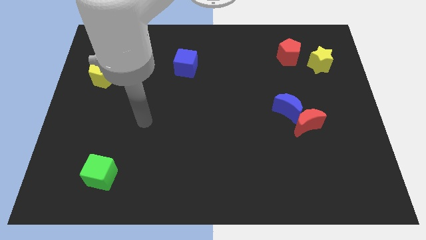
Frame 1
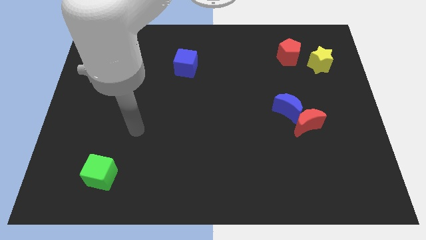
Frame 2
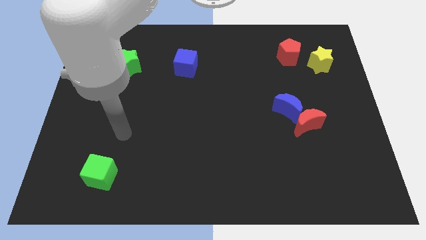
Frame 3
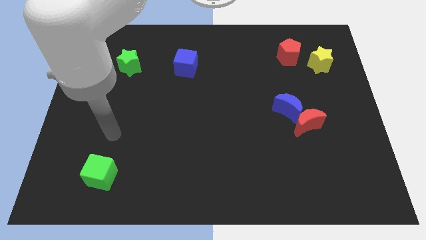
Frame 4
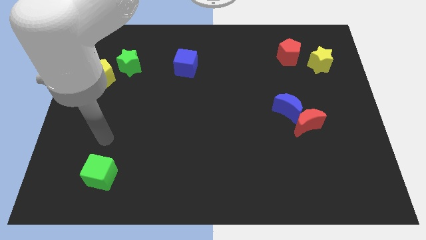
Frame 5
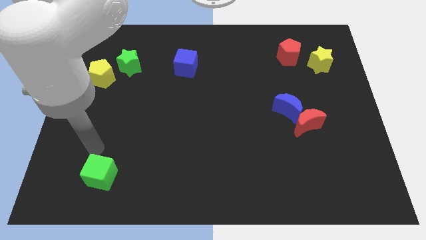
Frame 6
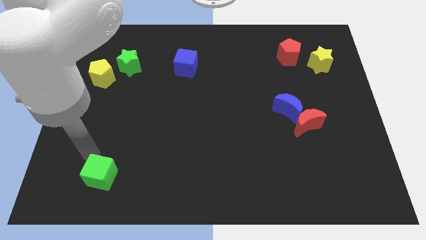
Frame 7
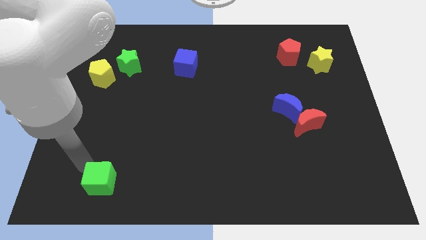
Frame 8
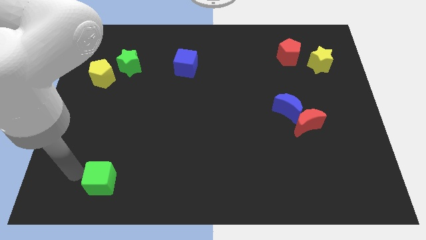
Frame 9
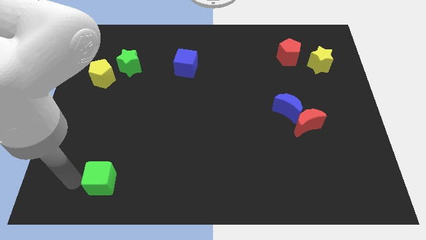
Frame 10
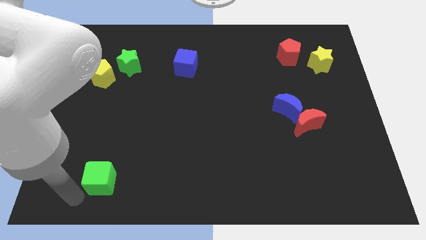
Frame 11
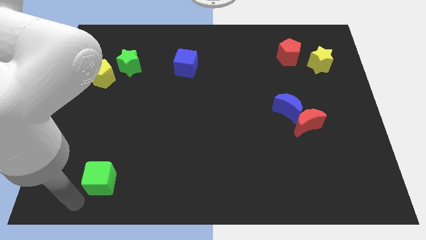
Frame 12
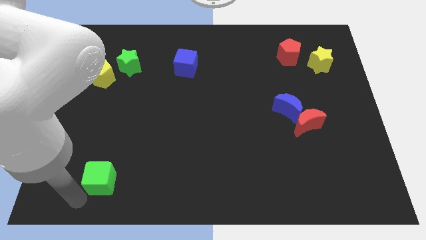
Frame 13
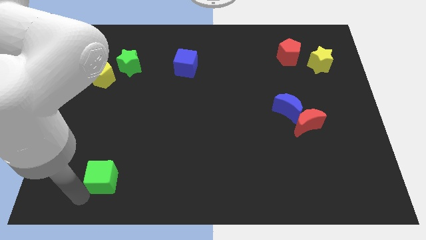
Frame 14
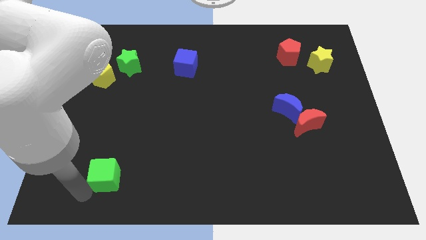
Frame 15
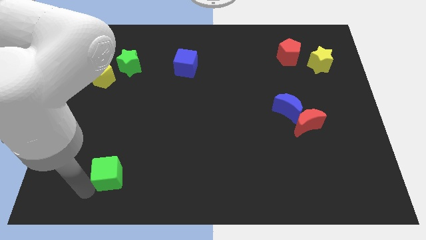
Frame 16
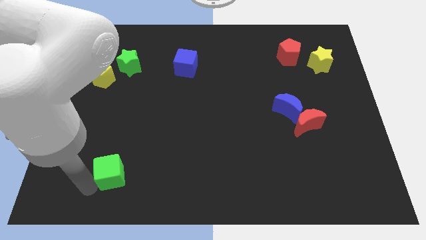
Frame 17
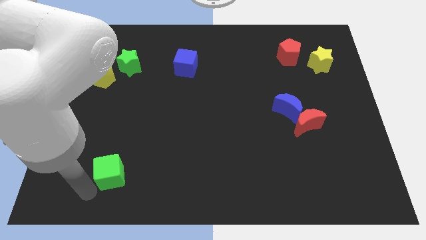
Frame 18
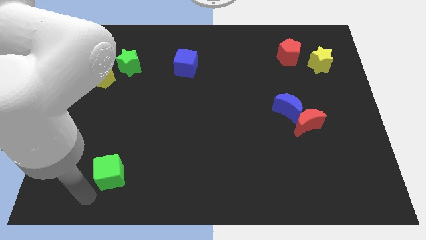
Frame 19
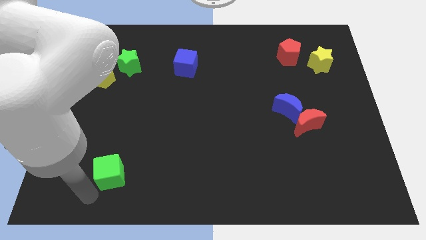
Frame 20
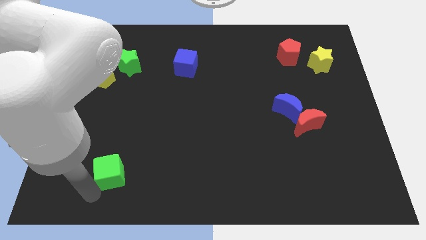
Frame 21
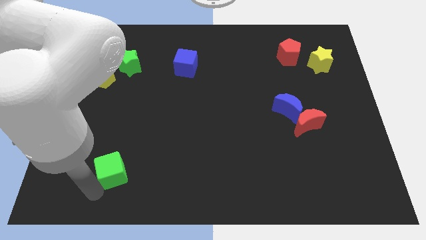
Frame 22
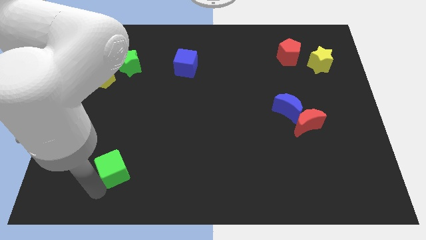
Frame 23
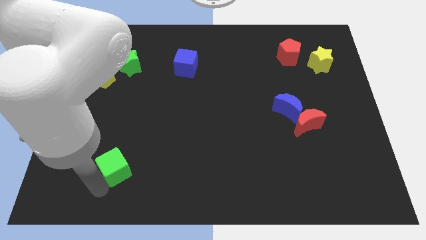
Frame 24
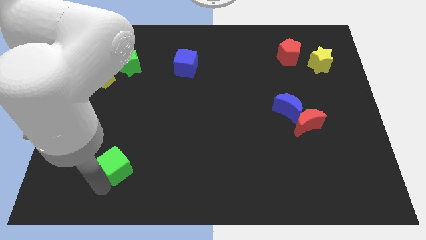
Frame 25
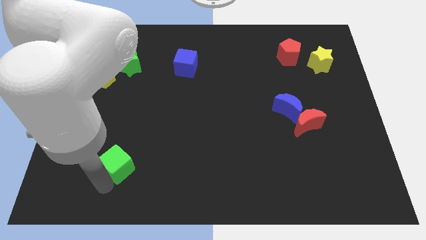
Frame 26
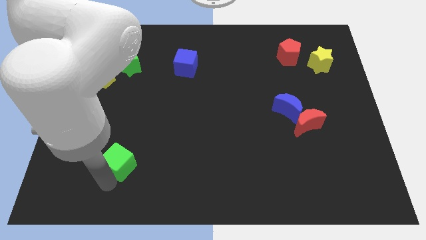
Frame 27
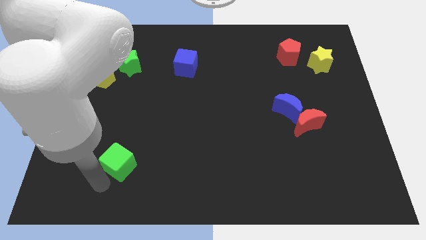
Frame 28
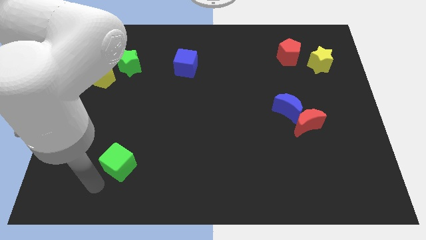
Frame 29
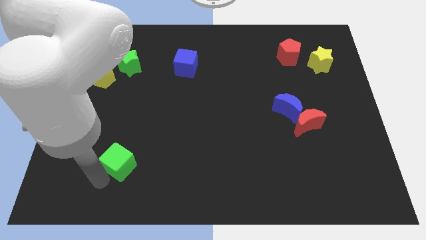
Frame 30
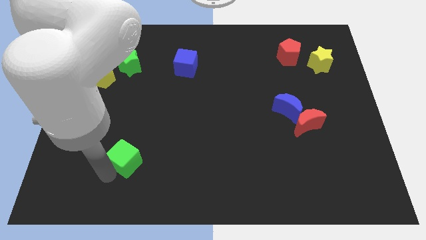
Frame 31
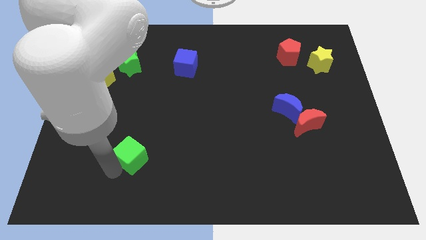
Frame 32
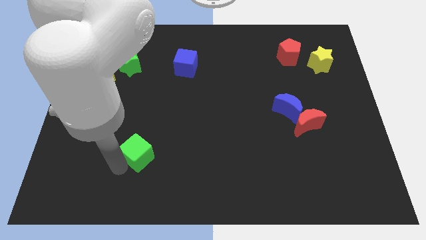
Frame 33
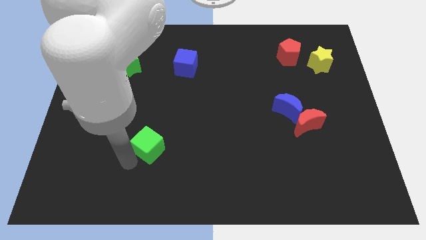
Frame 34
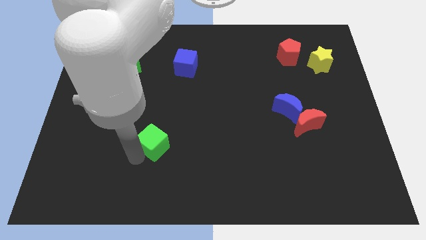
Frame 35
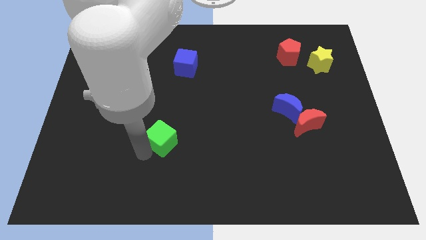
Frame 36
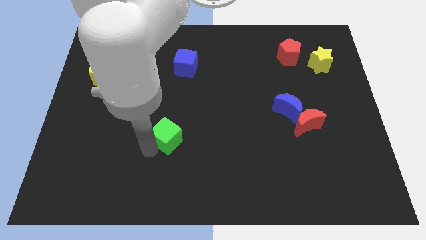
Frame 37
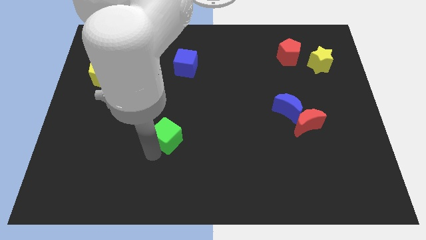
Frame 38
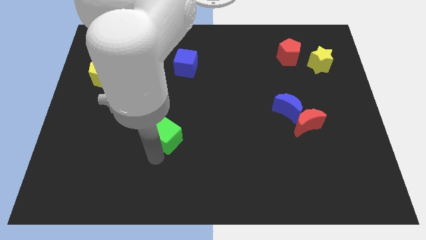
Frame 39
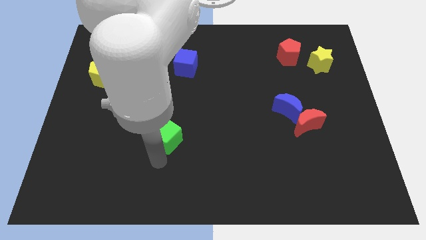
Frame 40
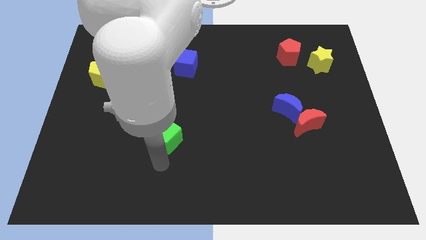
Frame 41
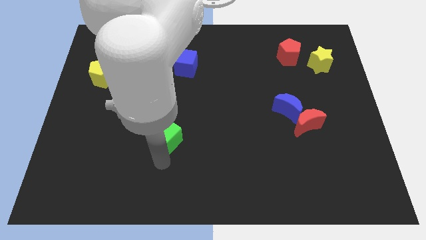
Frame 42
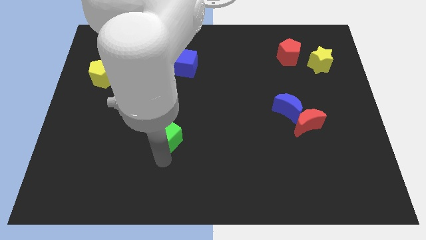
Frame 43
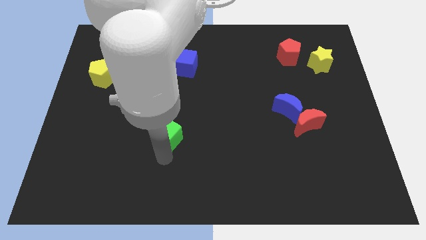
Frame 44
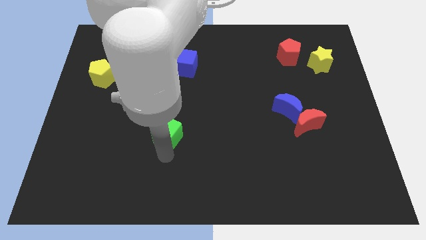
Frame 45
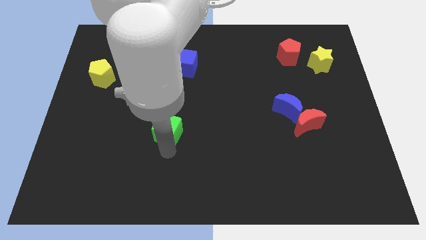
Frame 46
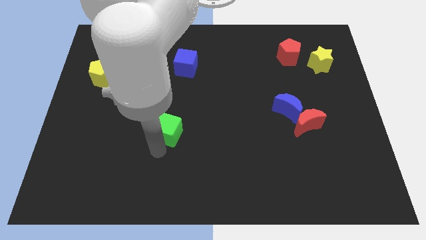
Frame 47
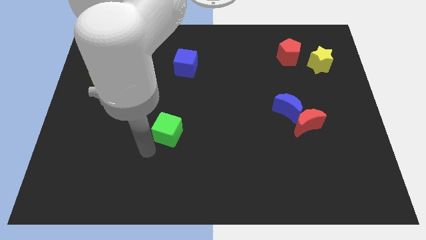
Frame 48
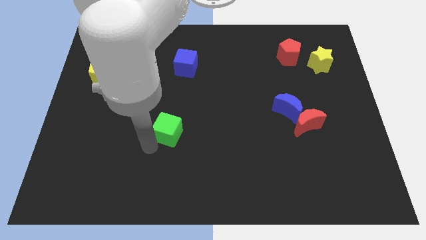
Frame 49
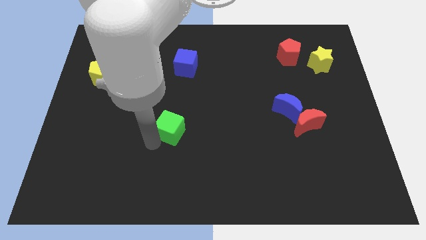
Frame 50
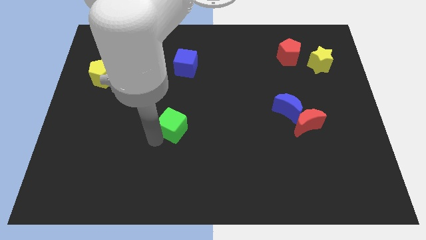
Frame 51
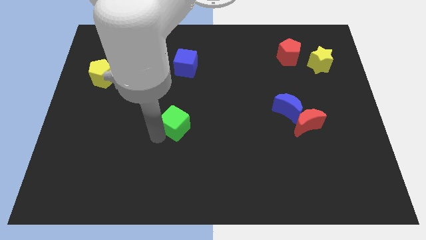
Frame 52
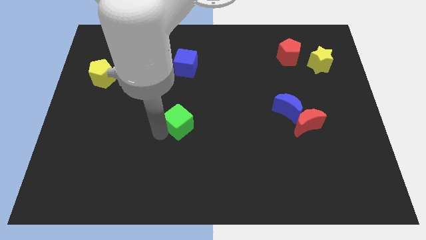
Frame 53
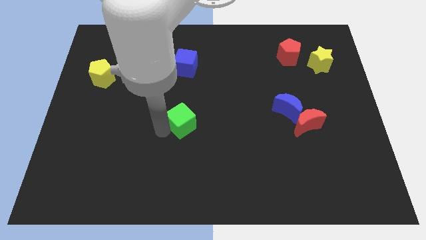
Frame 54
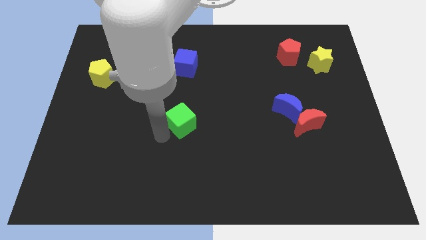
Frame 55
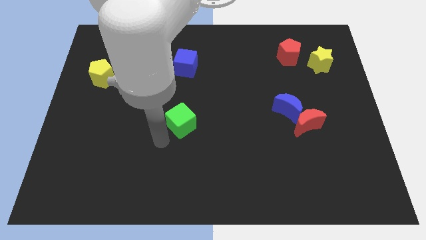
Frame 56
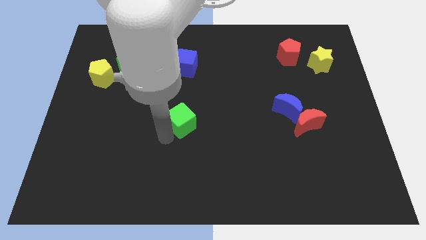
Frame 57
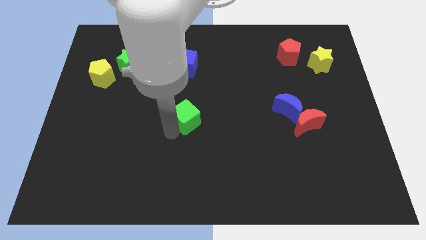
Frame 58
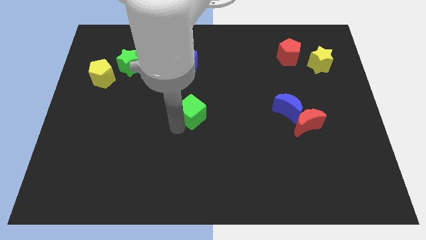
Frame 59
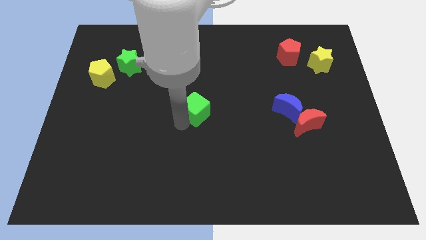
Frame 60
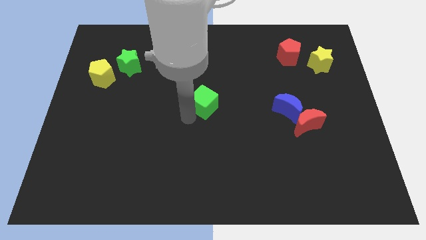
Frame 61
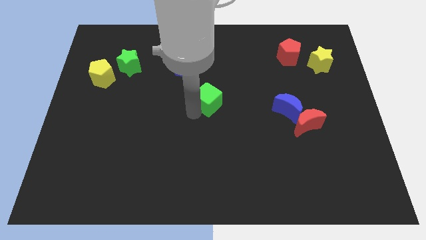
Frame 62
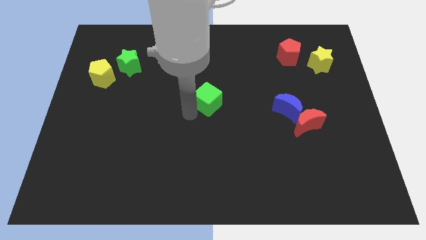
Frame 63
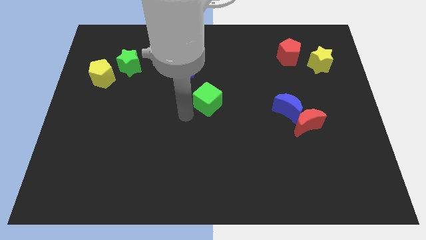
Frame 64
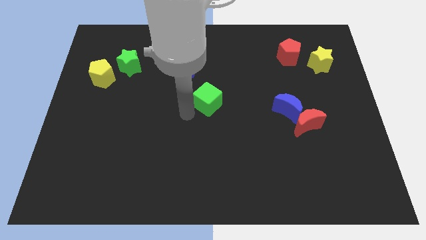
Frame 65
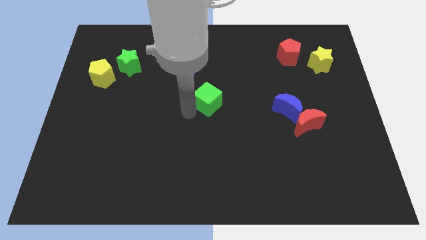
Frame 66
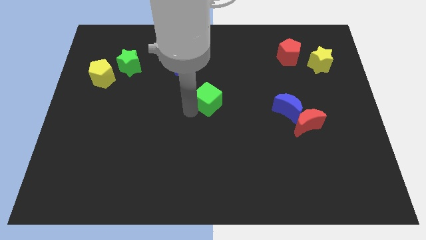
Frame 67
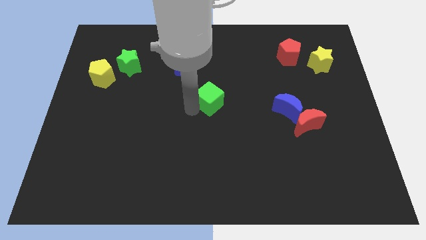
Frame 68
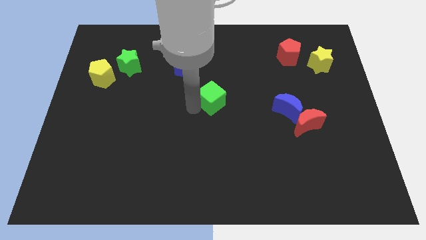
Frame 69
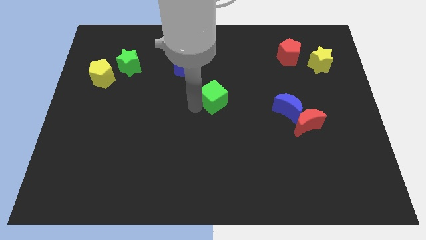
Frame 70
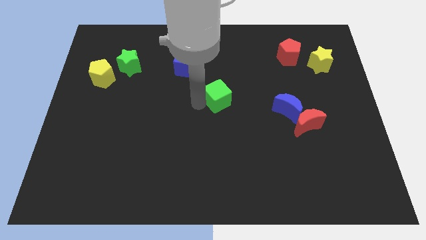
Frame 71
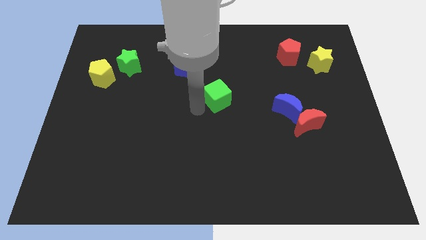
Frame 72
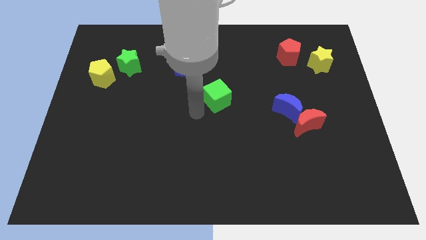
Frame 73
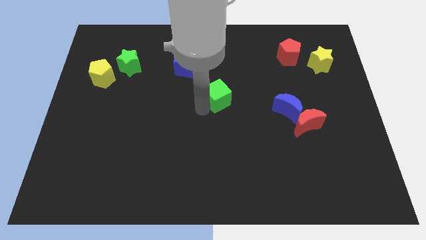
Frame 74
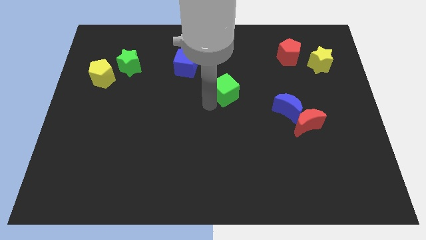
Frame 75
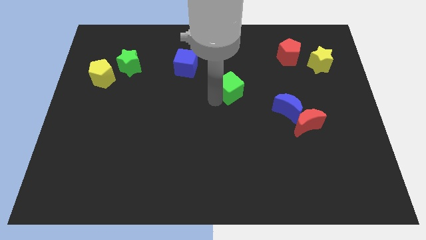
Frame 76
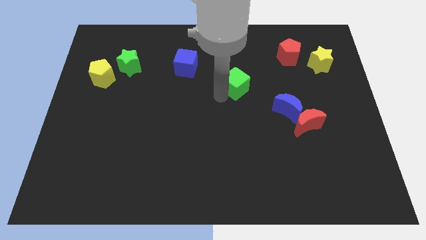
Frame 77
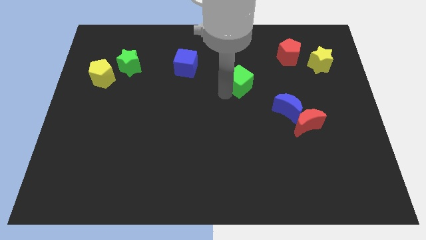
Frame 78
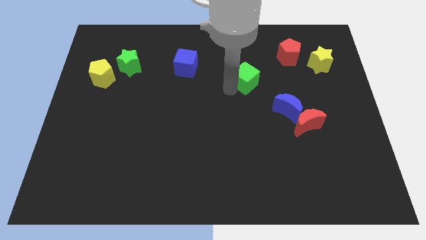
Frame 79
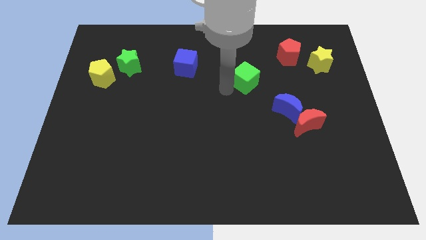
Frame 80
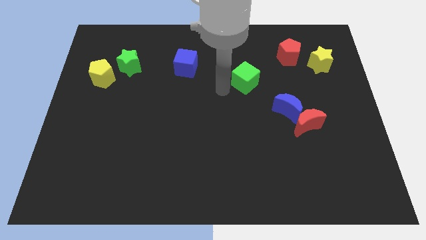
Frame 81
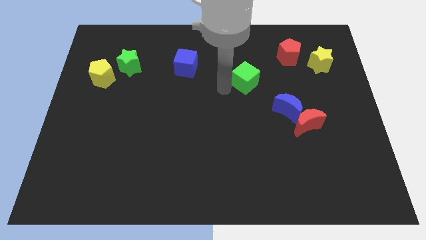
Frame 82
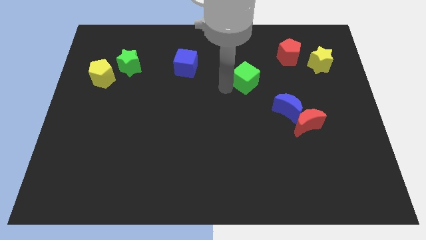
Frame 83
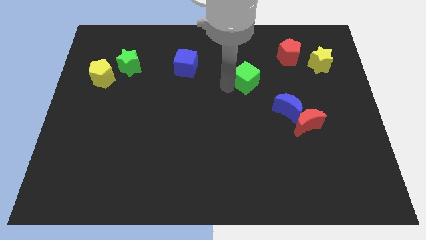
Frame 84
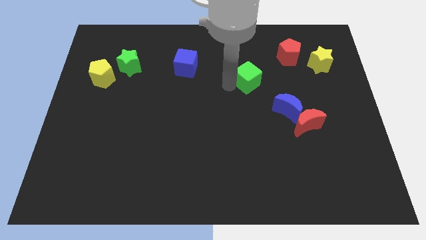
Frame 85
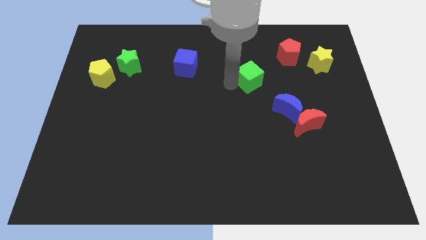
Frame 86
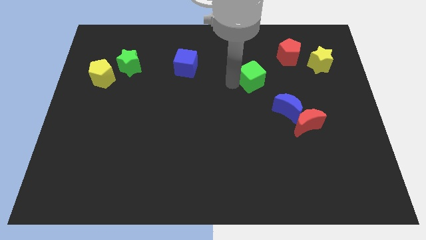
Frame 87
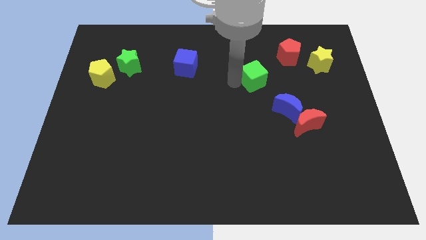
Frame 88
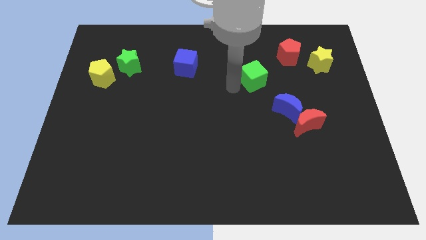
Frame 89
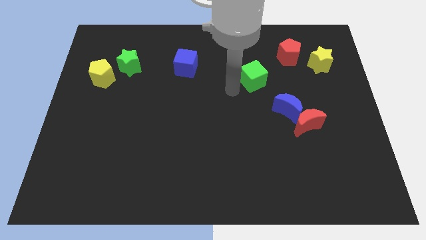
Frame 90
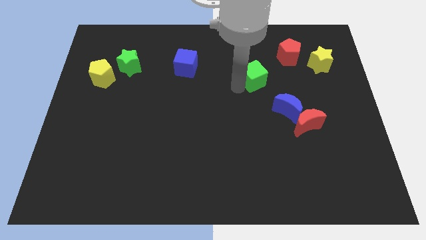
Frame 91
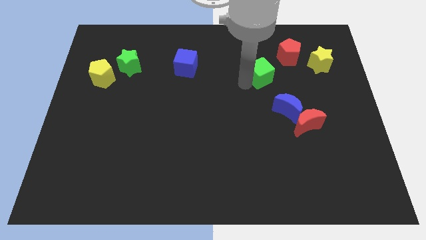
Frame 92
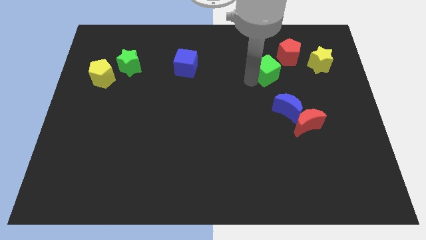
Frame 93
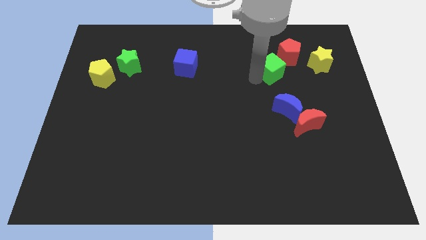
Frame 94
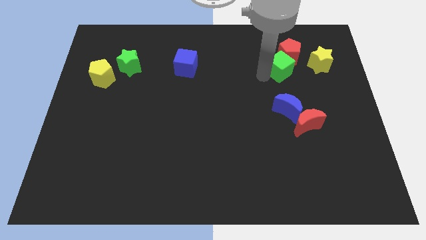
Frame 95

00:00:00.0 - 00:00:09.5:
move the green cube to the red pentagon
